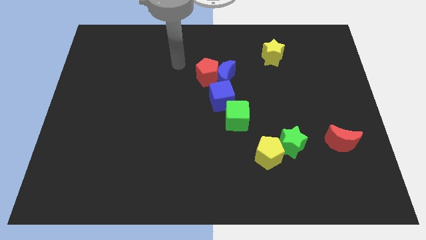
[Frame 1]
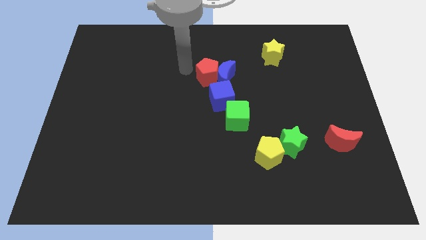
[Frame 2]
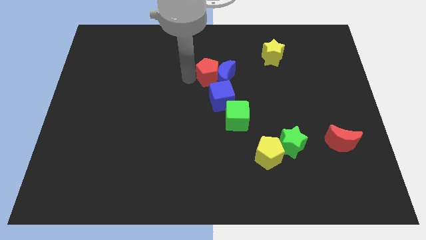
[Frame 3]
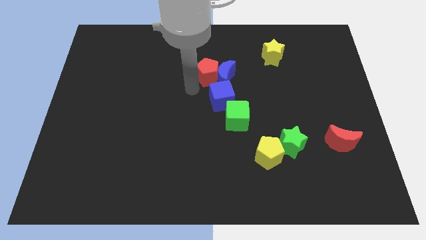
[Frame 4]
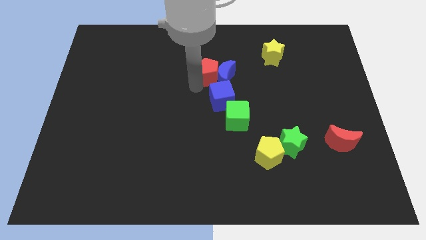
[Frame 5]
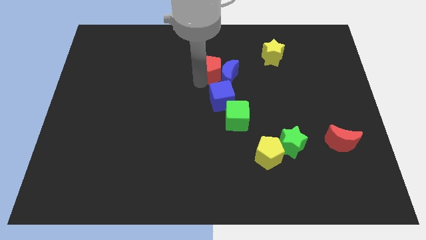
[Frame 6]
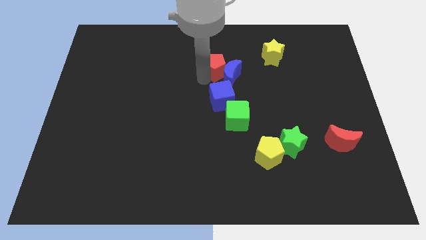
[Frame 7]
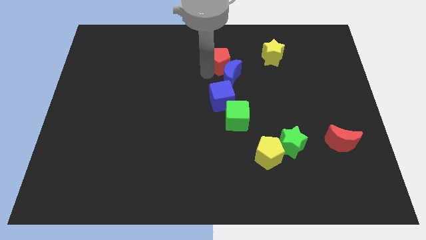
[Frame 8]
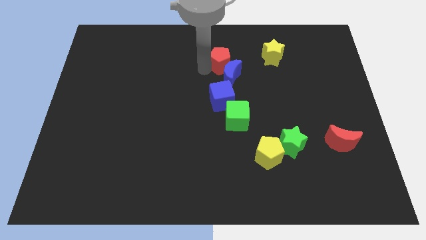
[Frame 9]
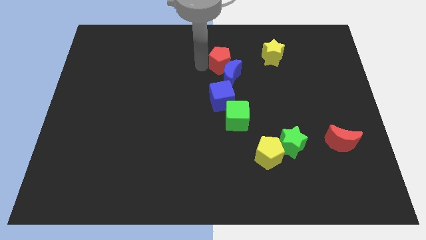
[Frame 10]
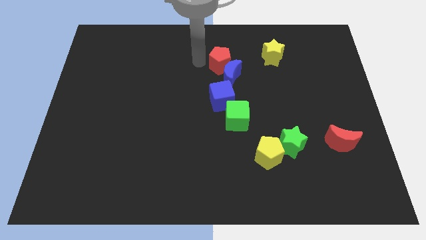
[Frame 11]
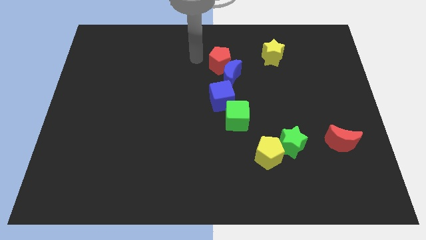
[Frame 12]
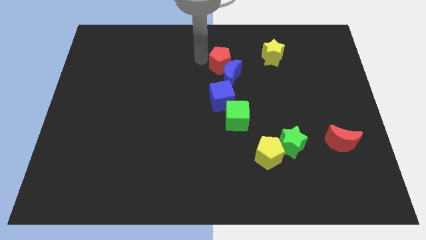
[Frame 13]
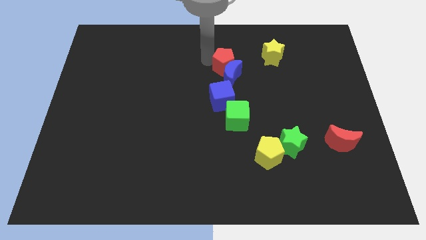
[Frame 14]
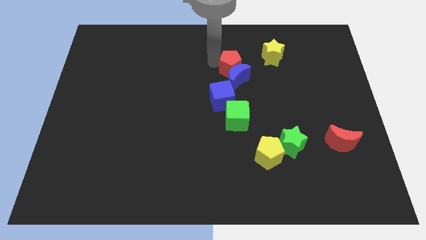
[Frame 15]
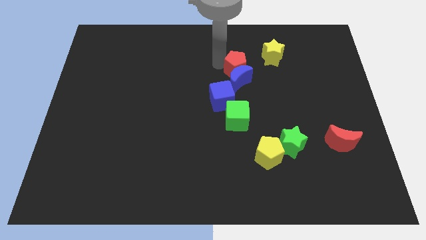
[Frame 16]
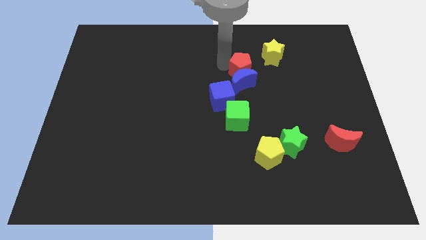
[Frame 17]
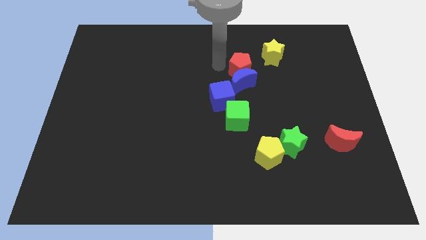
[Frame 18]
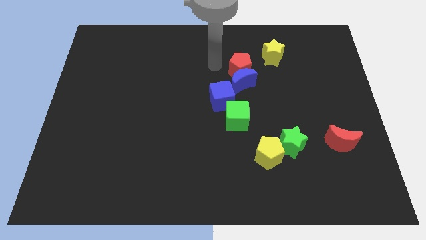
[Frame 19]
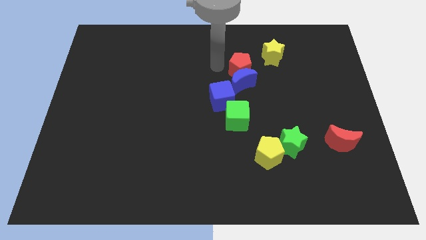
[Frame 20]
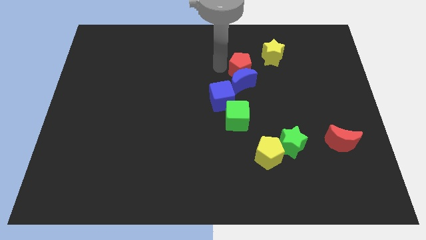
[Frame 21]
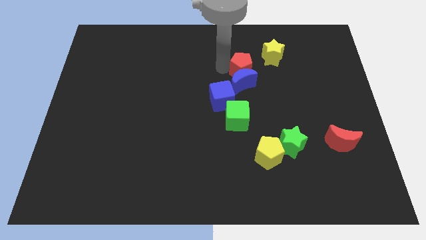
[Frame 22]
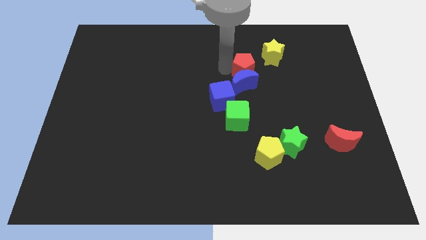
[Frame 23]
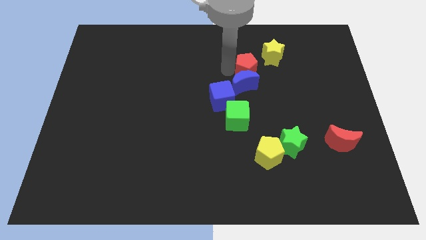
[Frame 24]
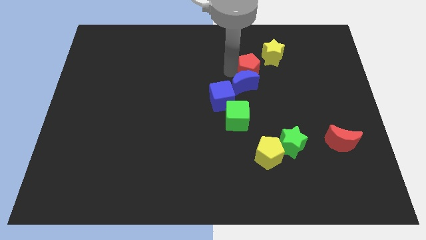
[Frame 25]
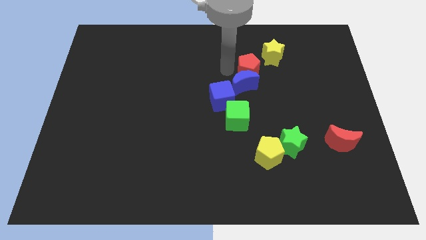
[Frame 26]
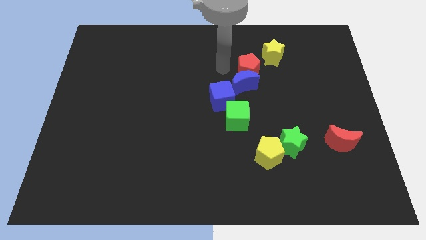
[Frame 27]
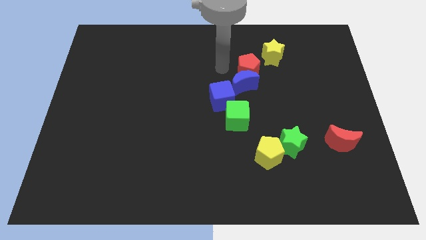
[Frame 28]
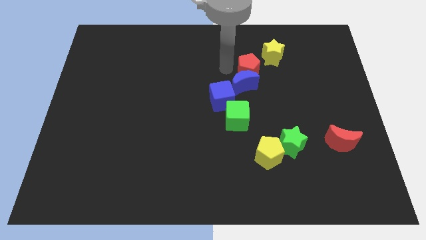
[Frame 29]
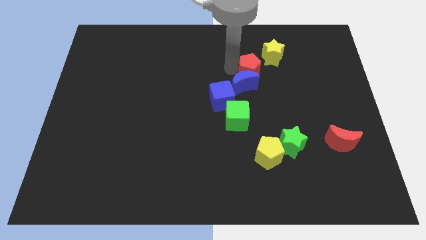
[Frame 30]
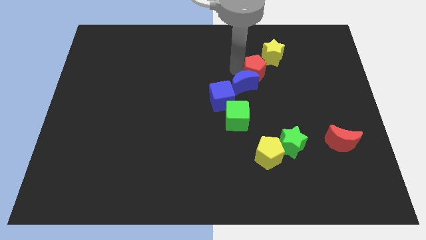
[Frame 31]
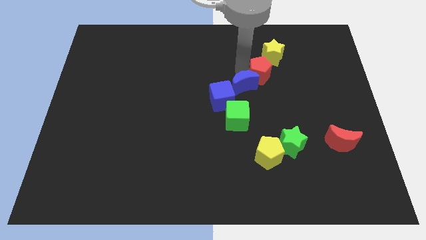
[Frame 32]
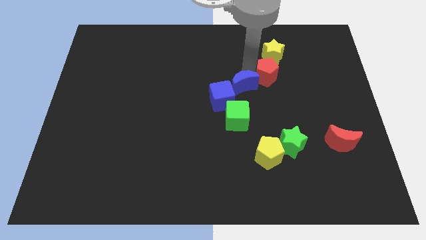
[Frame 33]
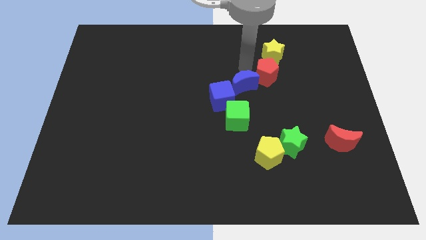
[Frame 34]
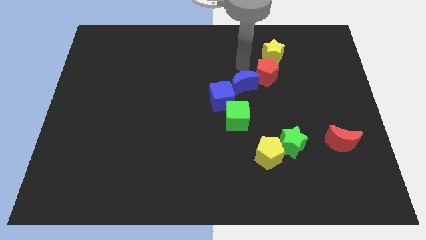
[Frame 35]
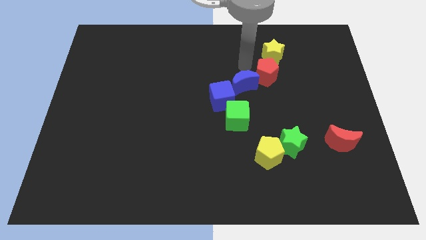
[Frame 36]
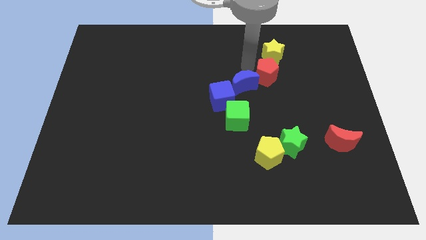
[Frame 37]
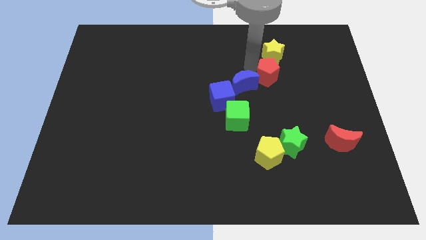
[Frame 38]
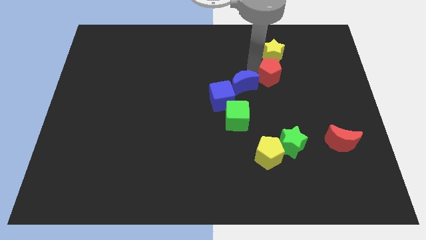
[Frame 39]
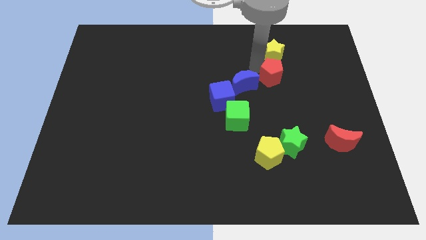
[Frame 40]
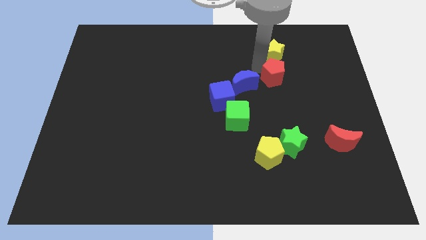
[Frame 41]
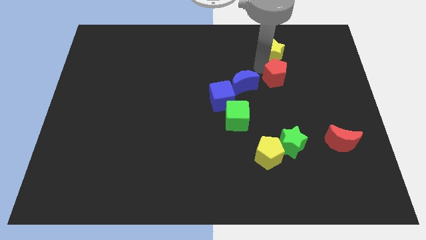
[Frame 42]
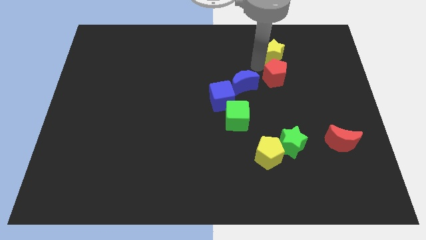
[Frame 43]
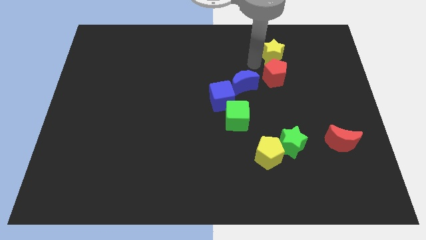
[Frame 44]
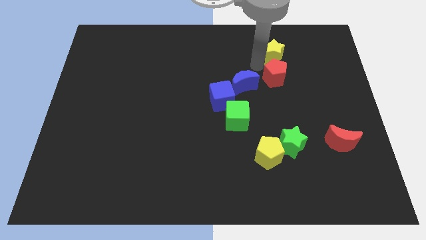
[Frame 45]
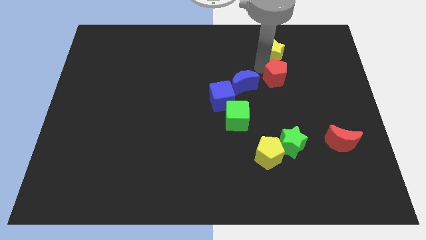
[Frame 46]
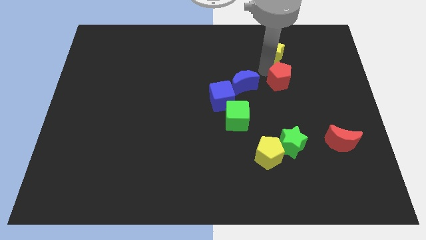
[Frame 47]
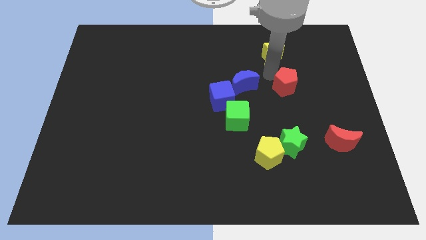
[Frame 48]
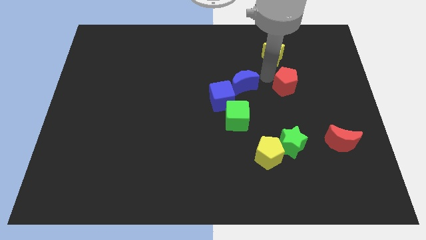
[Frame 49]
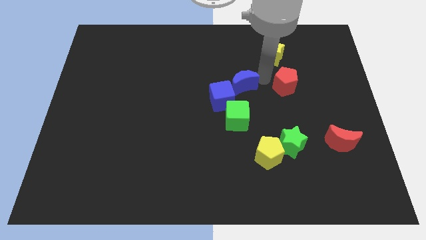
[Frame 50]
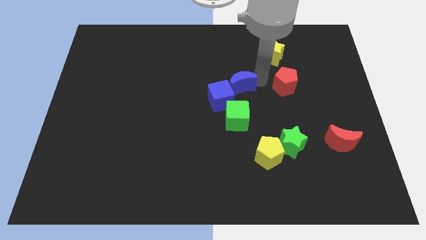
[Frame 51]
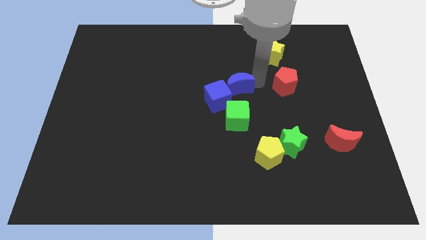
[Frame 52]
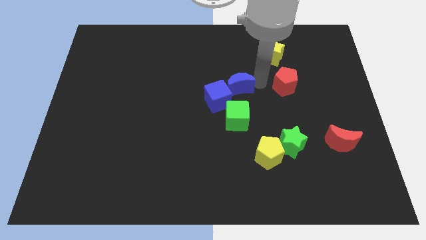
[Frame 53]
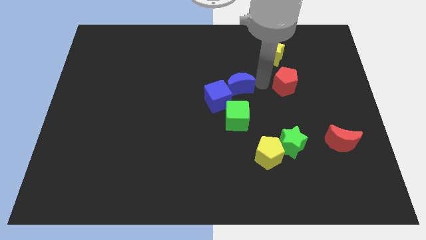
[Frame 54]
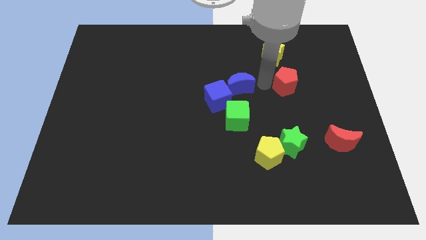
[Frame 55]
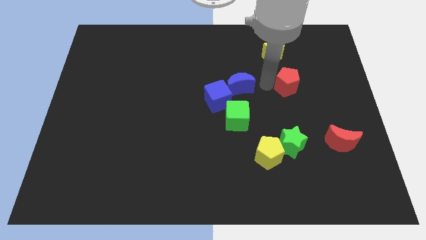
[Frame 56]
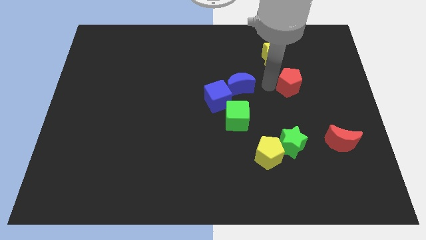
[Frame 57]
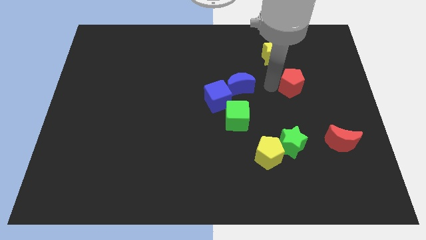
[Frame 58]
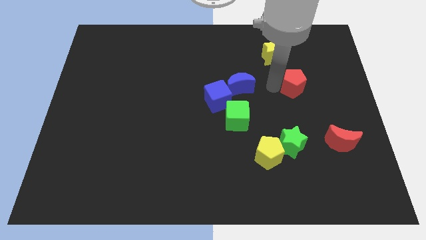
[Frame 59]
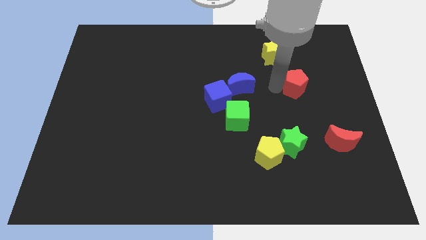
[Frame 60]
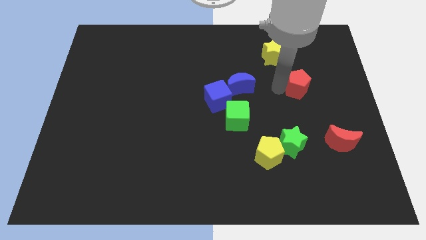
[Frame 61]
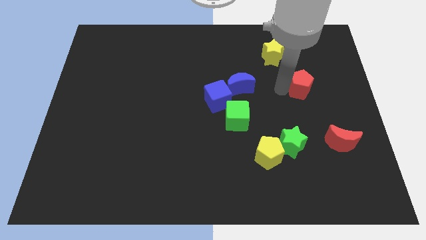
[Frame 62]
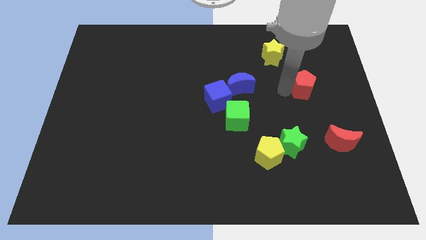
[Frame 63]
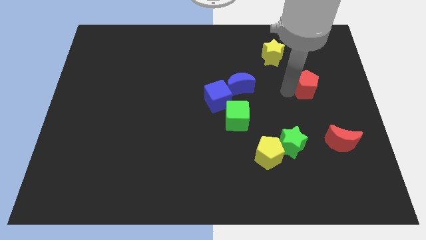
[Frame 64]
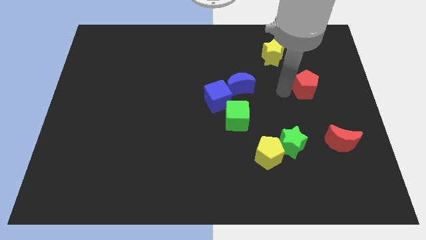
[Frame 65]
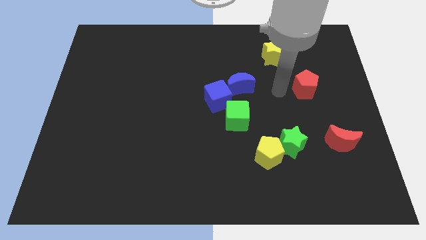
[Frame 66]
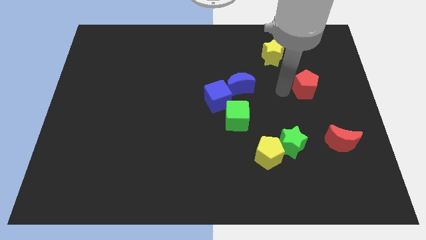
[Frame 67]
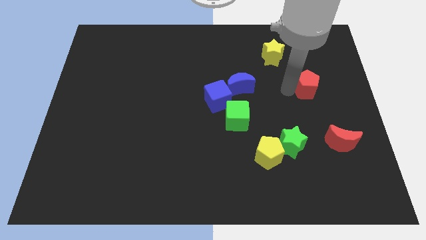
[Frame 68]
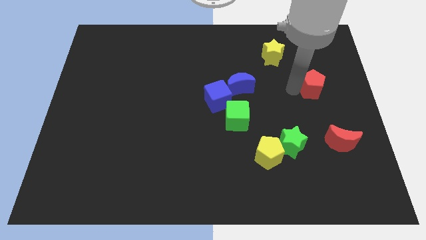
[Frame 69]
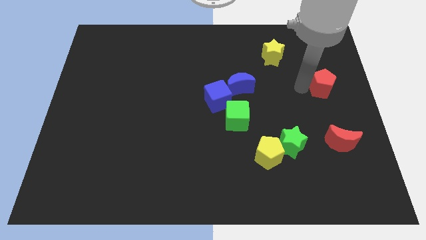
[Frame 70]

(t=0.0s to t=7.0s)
push the red pentagon to the right side of the board
